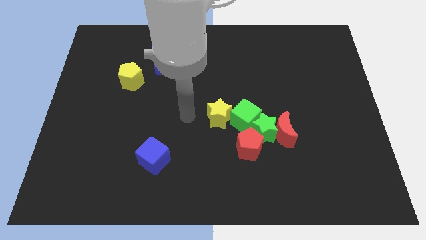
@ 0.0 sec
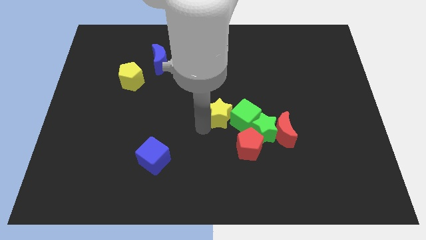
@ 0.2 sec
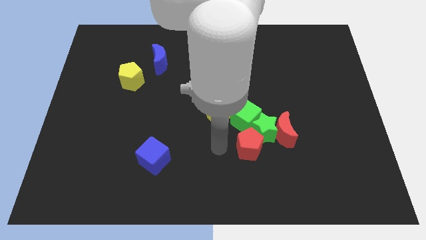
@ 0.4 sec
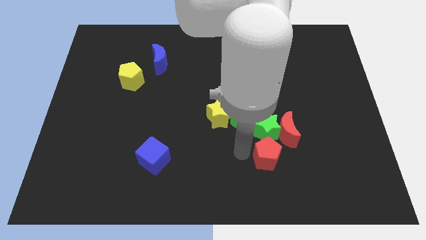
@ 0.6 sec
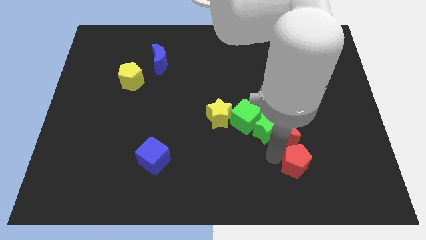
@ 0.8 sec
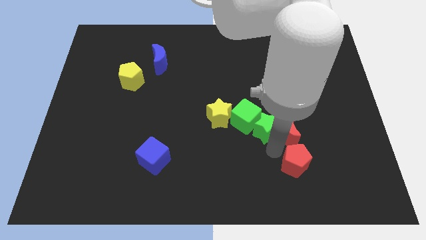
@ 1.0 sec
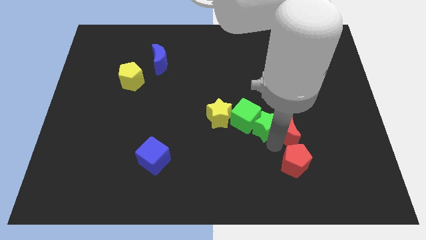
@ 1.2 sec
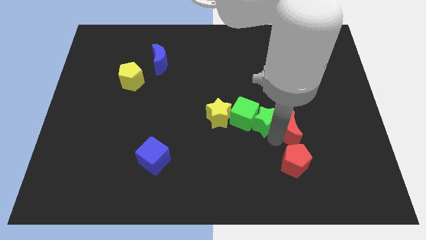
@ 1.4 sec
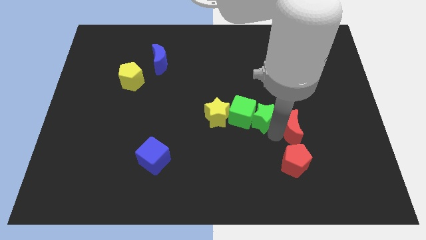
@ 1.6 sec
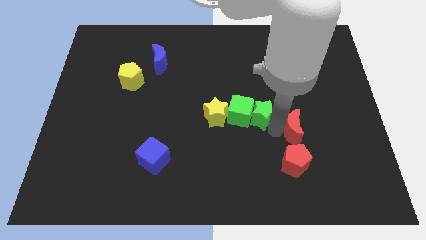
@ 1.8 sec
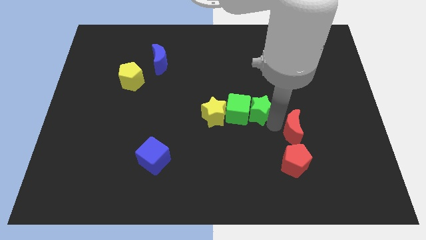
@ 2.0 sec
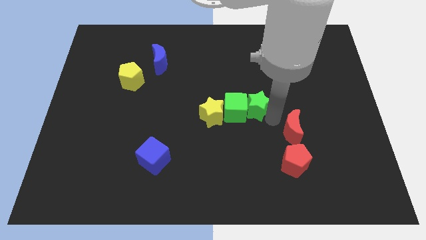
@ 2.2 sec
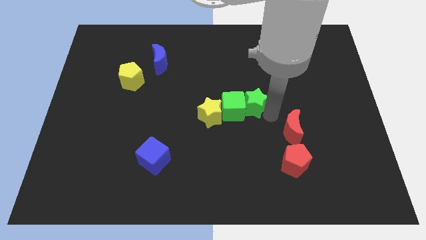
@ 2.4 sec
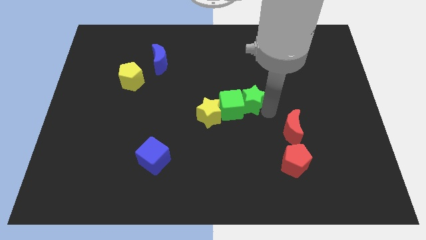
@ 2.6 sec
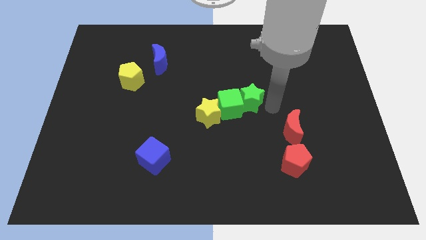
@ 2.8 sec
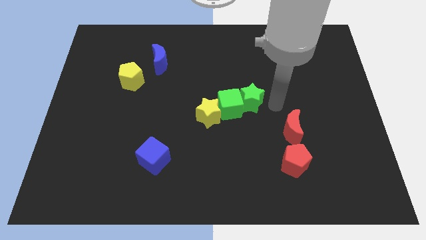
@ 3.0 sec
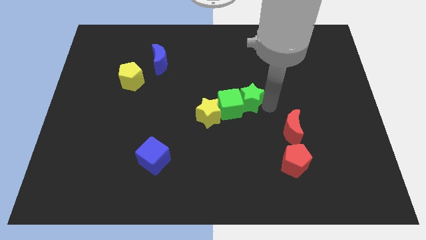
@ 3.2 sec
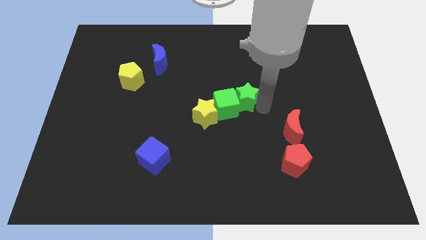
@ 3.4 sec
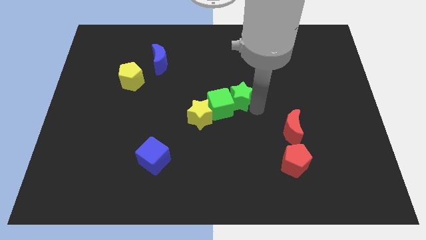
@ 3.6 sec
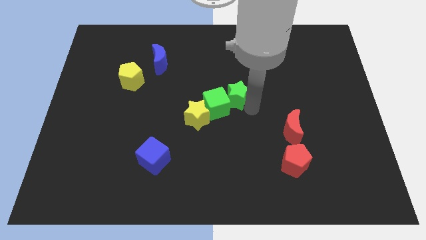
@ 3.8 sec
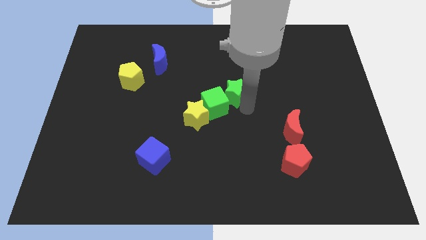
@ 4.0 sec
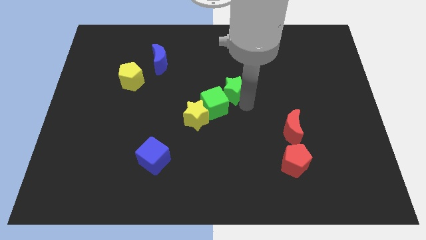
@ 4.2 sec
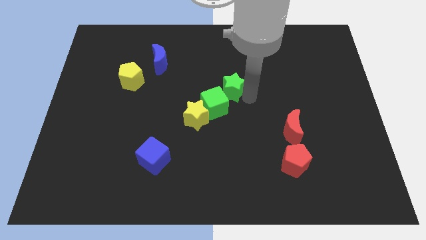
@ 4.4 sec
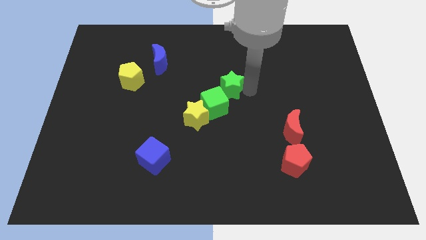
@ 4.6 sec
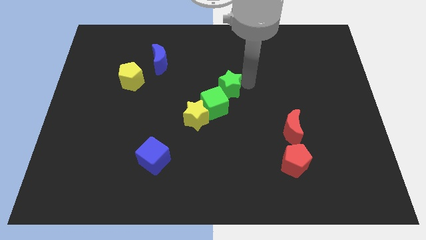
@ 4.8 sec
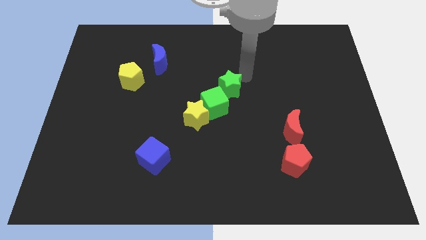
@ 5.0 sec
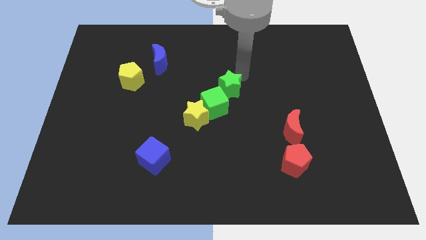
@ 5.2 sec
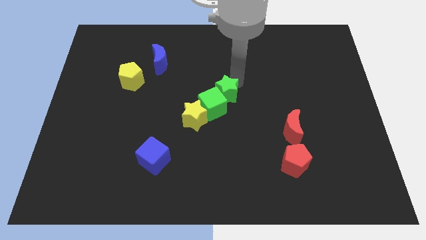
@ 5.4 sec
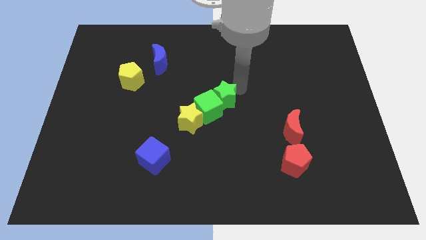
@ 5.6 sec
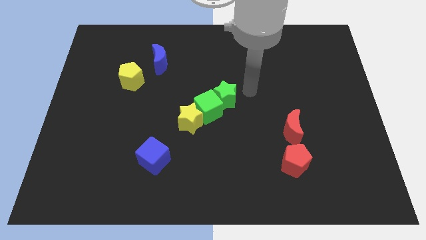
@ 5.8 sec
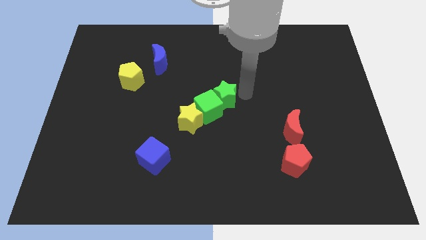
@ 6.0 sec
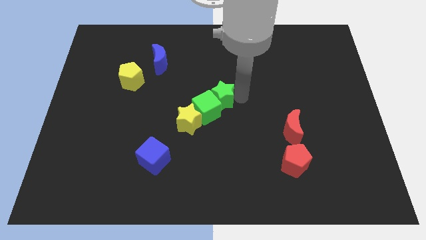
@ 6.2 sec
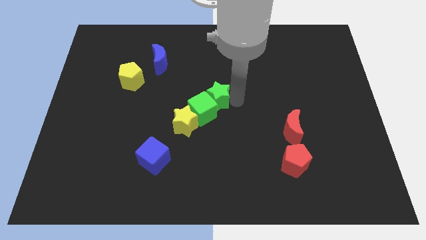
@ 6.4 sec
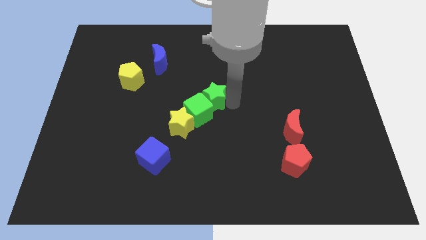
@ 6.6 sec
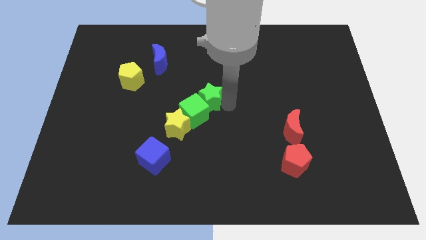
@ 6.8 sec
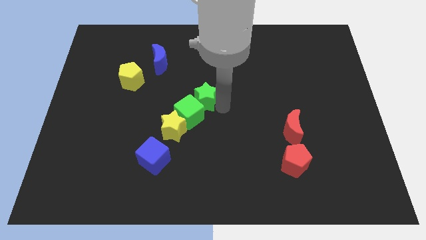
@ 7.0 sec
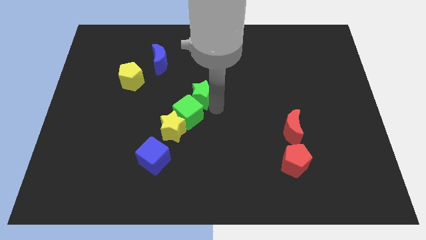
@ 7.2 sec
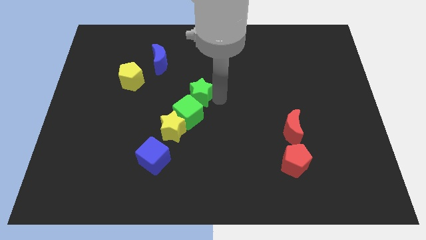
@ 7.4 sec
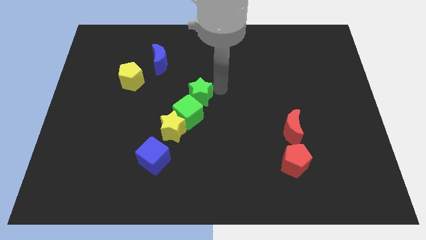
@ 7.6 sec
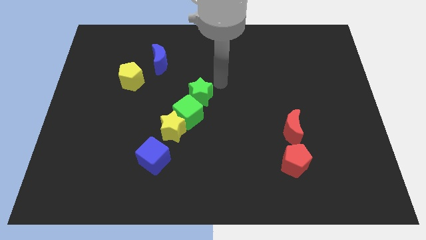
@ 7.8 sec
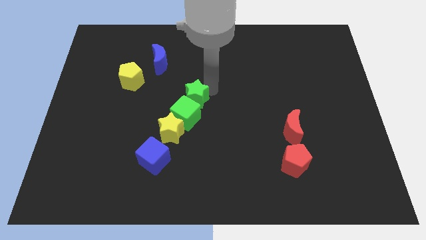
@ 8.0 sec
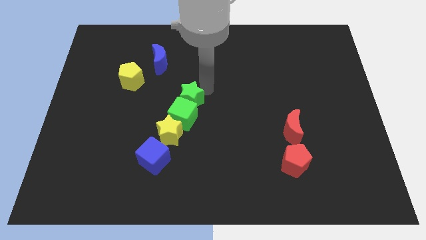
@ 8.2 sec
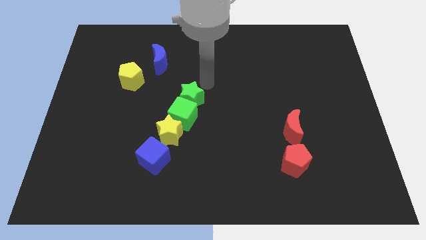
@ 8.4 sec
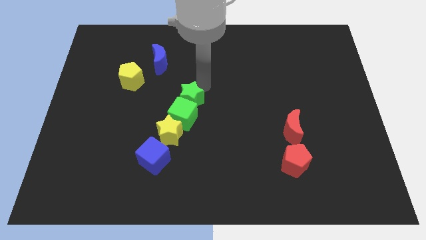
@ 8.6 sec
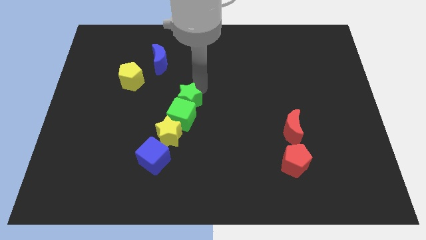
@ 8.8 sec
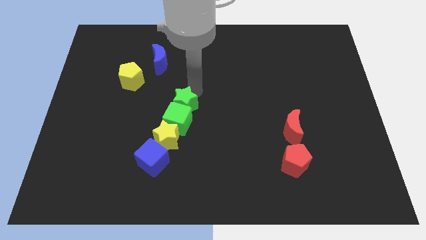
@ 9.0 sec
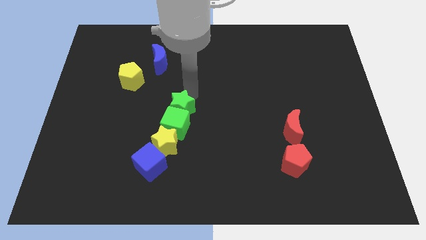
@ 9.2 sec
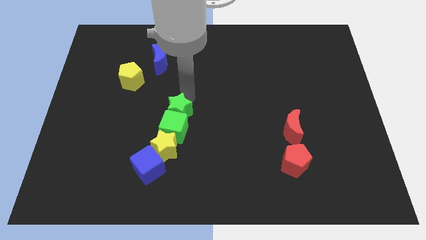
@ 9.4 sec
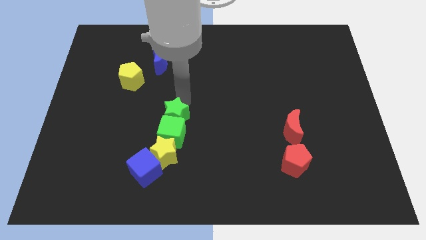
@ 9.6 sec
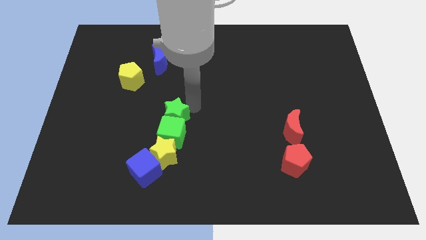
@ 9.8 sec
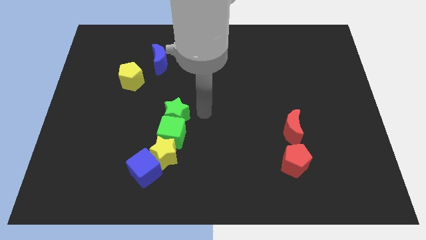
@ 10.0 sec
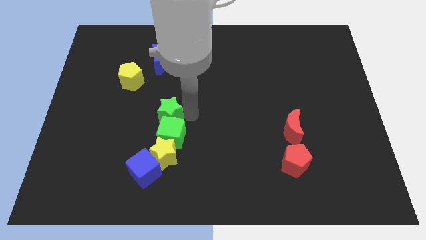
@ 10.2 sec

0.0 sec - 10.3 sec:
move the green star to the left

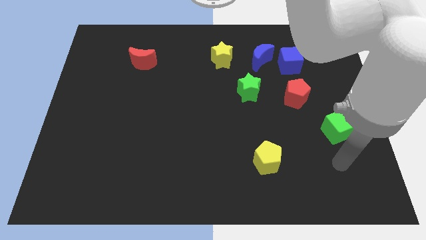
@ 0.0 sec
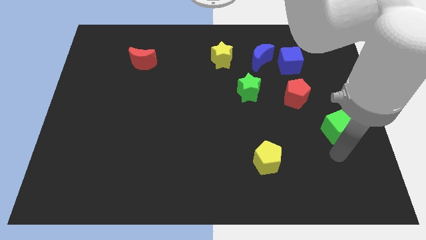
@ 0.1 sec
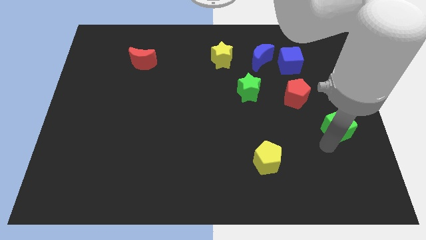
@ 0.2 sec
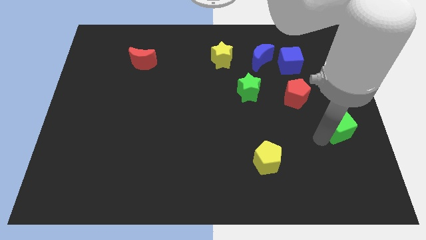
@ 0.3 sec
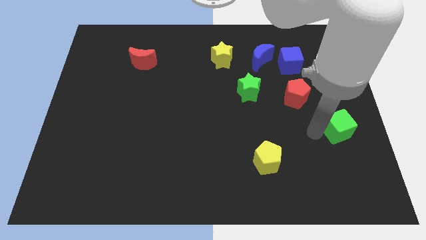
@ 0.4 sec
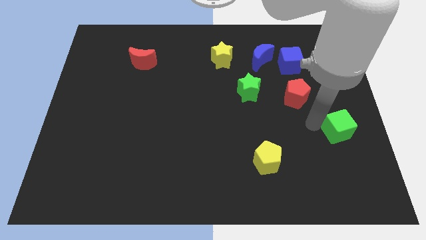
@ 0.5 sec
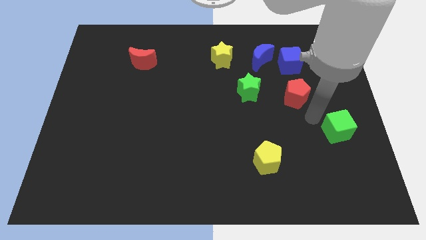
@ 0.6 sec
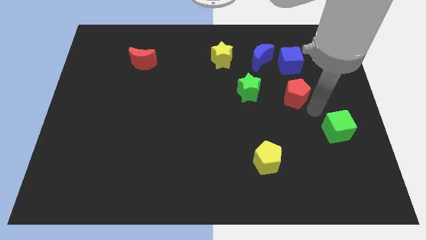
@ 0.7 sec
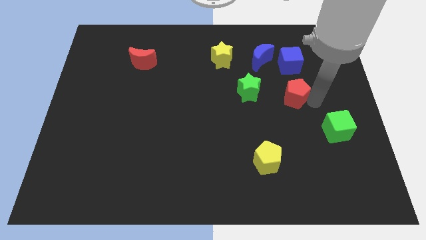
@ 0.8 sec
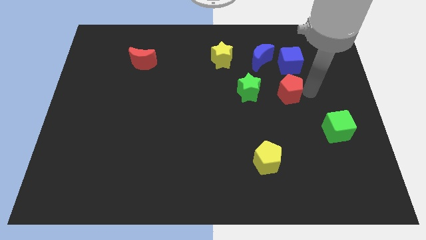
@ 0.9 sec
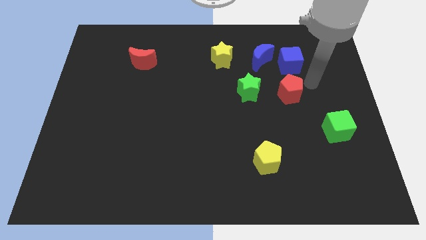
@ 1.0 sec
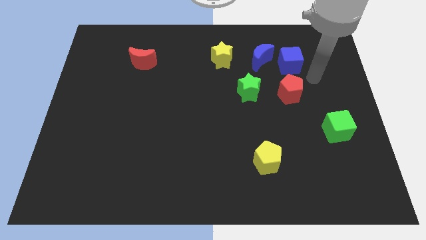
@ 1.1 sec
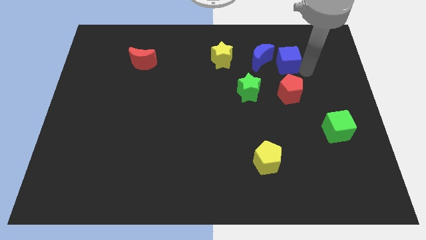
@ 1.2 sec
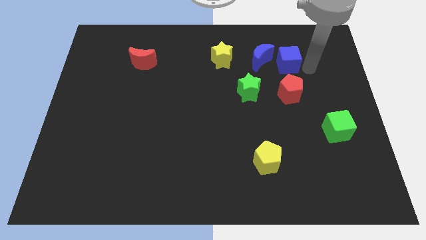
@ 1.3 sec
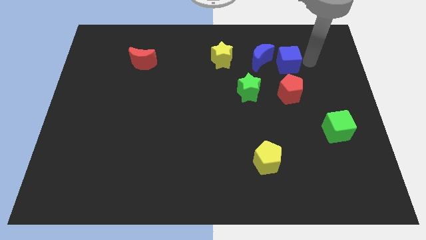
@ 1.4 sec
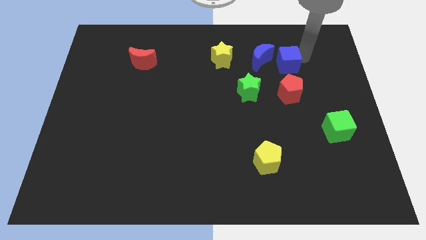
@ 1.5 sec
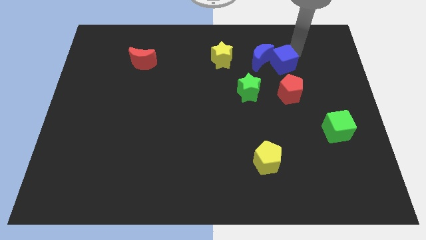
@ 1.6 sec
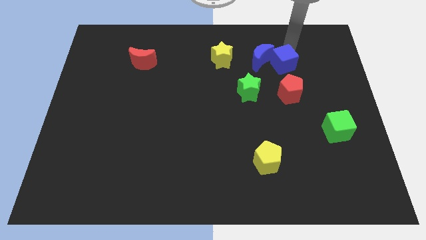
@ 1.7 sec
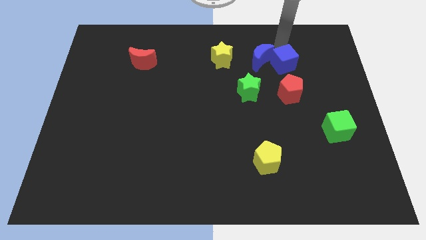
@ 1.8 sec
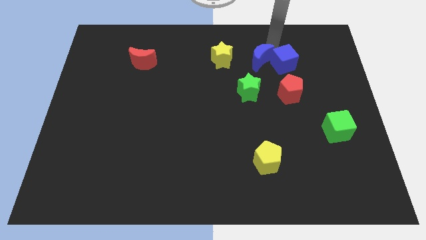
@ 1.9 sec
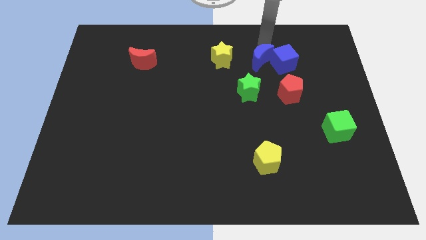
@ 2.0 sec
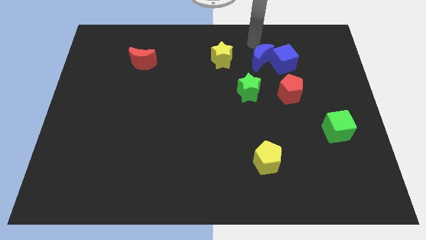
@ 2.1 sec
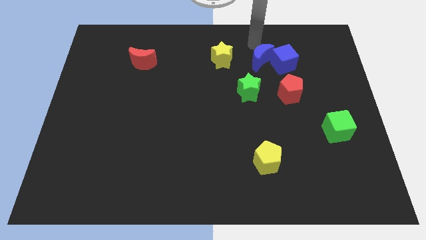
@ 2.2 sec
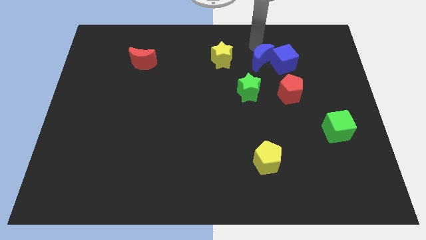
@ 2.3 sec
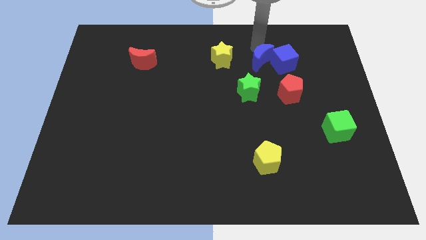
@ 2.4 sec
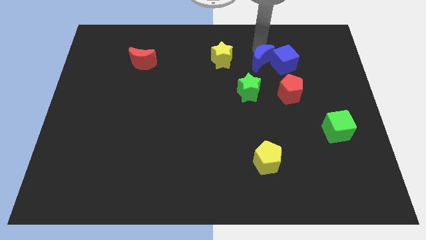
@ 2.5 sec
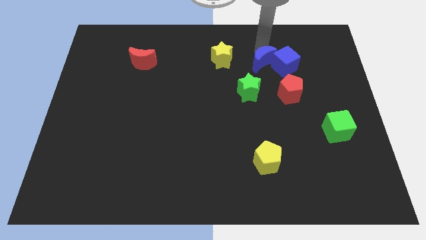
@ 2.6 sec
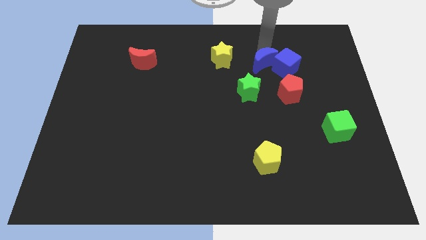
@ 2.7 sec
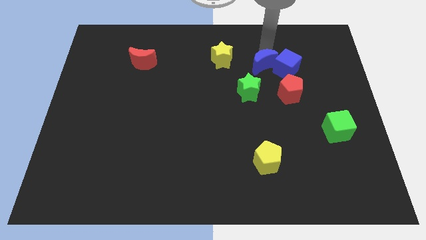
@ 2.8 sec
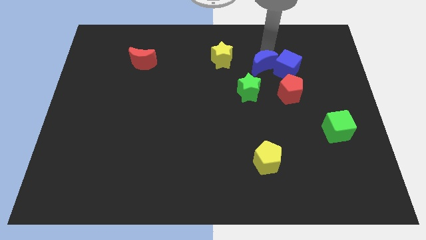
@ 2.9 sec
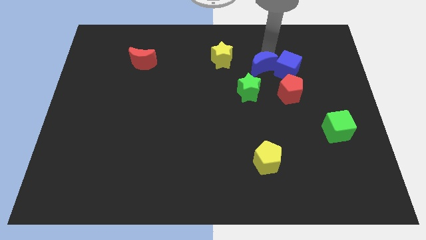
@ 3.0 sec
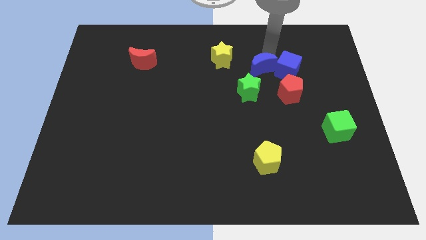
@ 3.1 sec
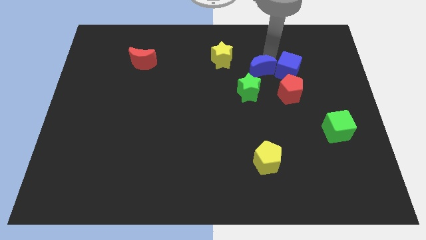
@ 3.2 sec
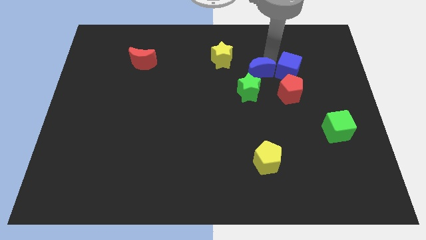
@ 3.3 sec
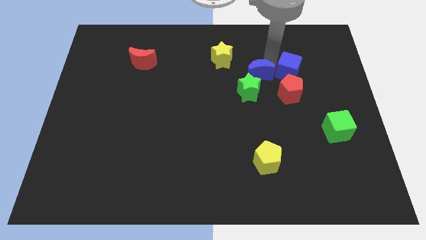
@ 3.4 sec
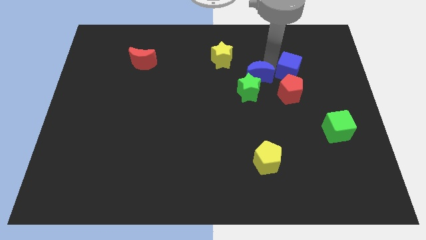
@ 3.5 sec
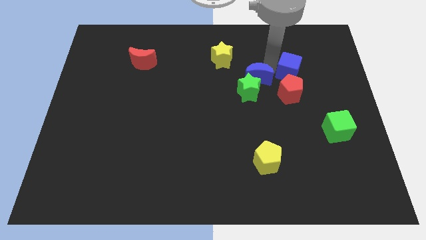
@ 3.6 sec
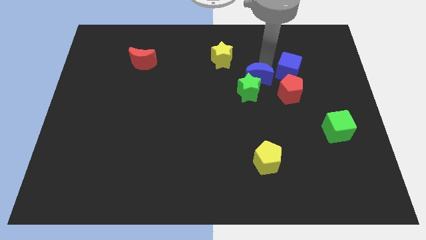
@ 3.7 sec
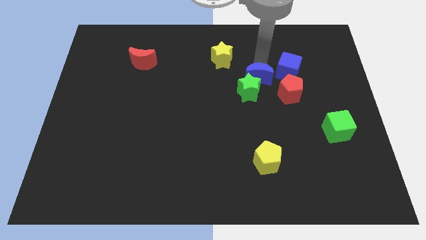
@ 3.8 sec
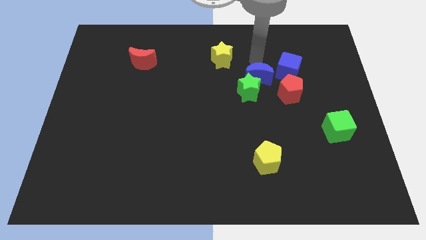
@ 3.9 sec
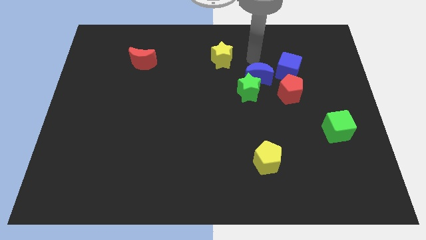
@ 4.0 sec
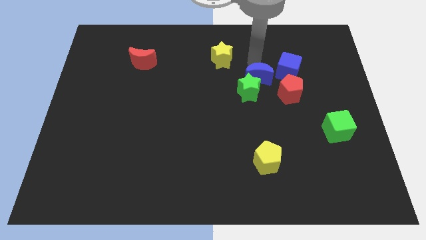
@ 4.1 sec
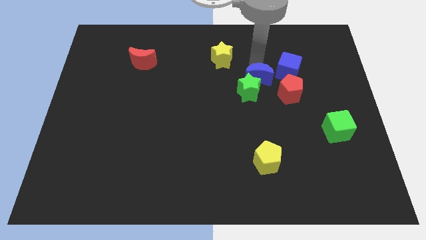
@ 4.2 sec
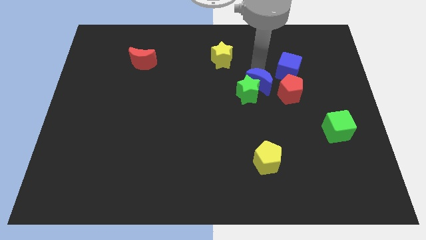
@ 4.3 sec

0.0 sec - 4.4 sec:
move the blue moon downwards a bit
